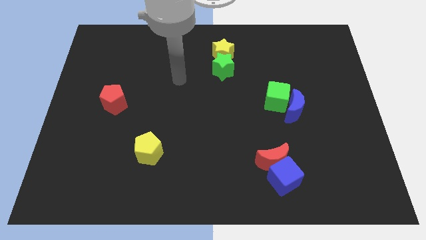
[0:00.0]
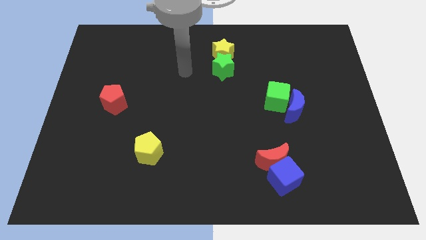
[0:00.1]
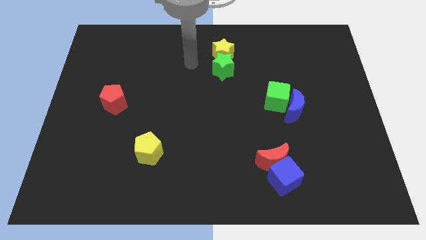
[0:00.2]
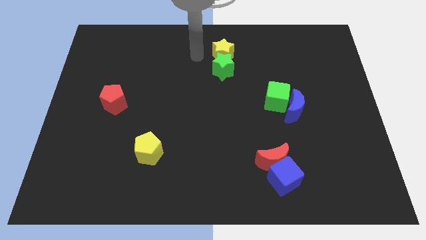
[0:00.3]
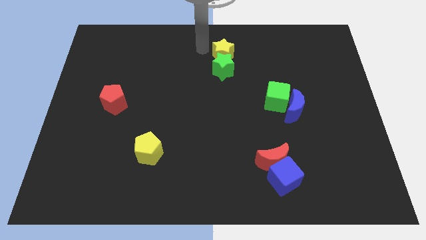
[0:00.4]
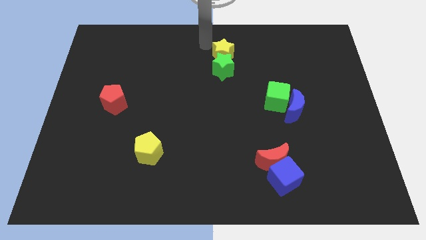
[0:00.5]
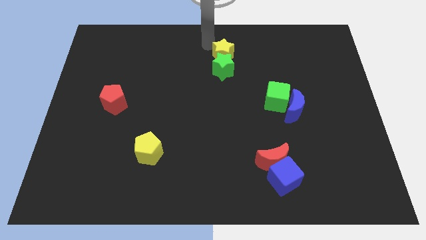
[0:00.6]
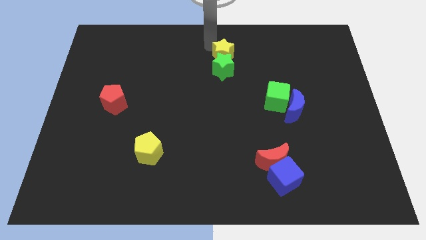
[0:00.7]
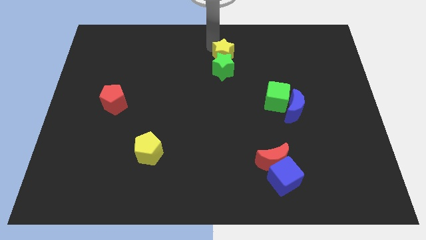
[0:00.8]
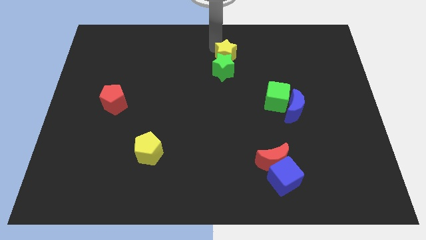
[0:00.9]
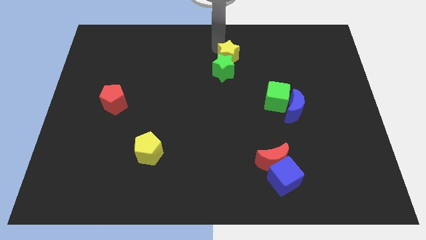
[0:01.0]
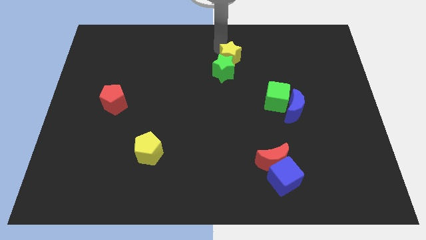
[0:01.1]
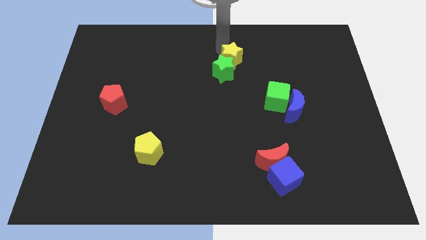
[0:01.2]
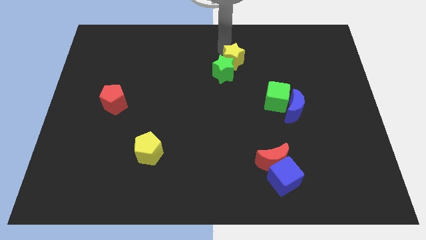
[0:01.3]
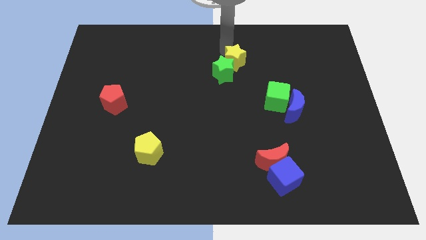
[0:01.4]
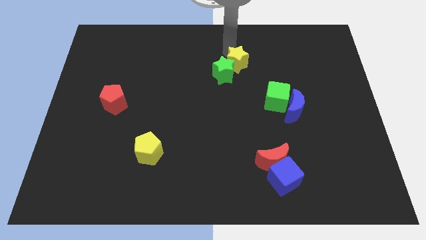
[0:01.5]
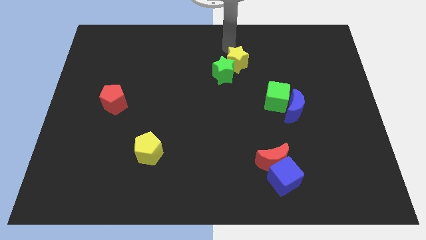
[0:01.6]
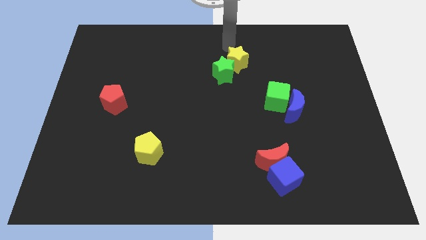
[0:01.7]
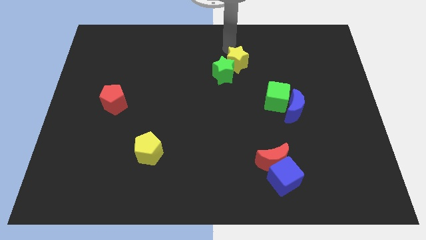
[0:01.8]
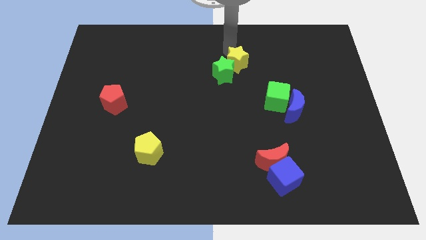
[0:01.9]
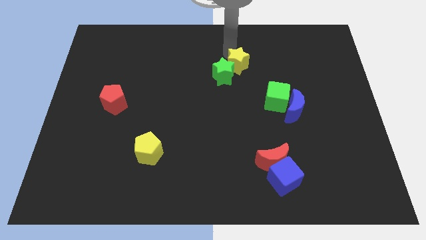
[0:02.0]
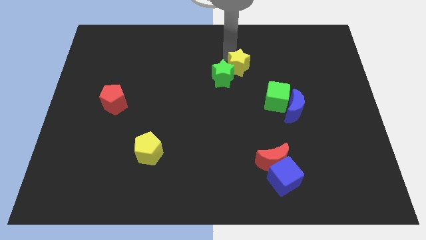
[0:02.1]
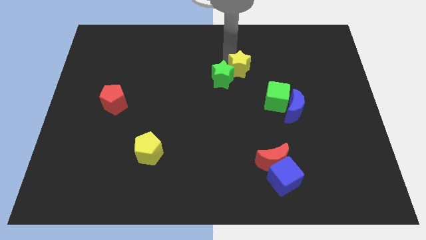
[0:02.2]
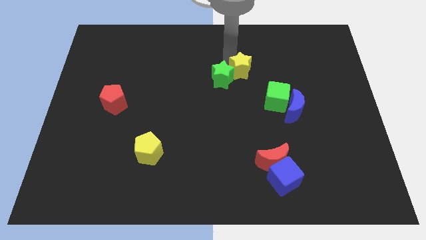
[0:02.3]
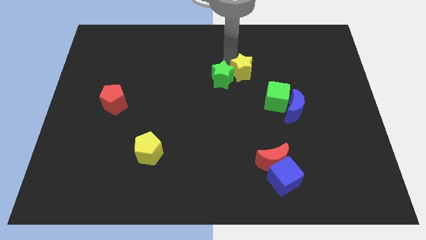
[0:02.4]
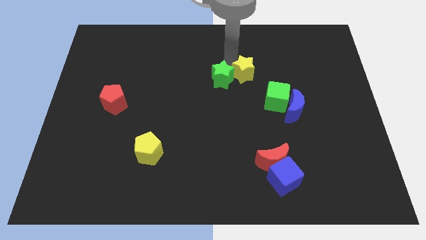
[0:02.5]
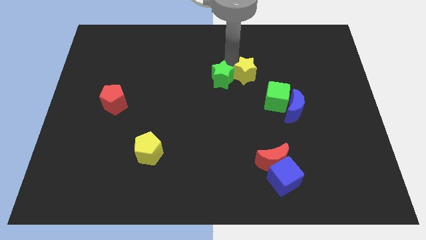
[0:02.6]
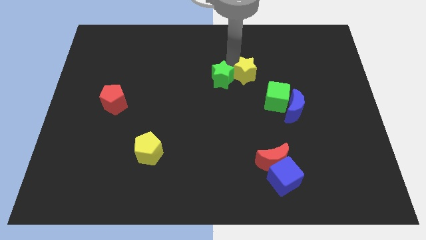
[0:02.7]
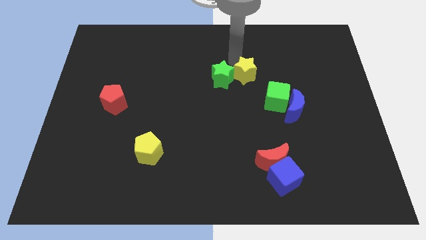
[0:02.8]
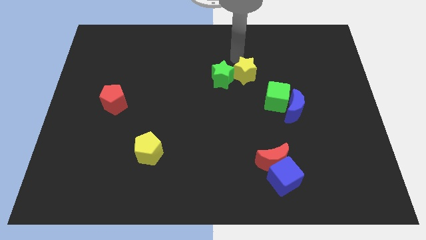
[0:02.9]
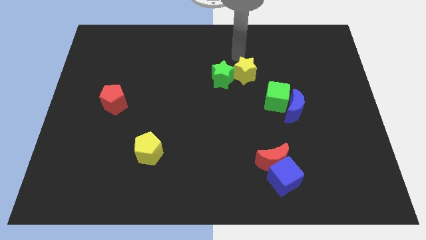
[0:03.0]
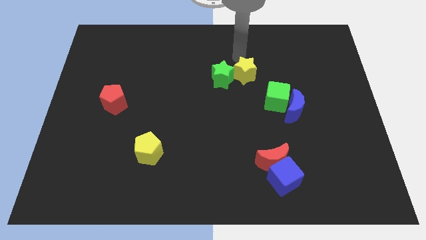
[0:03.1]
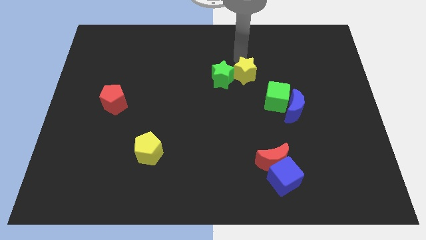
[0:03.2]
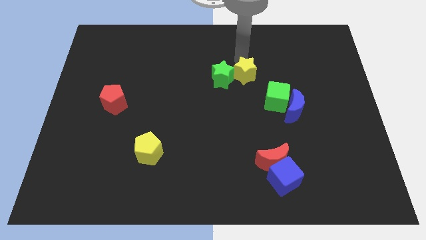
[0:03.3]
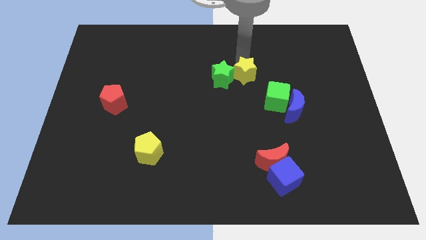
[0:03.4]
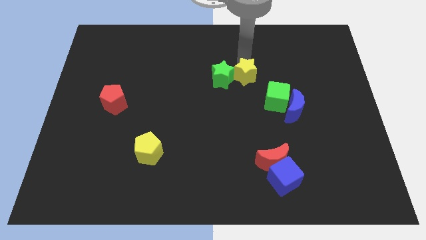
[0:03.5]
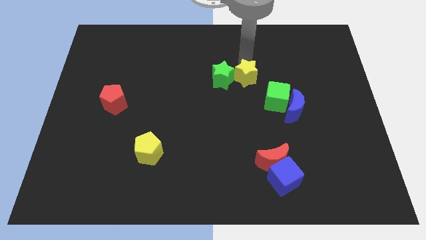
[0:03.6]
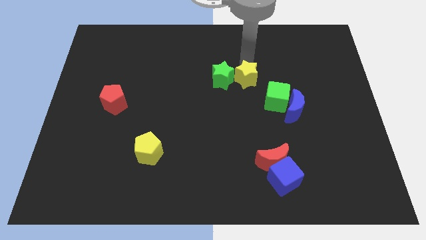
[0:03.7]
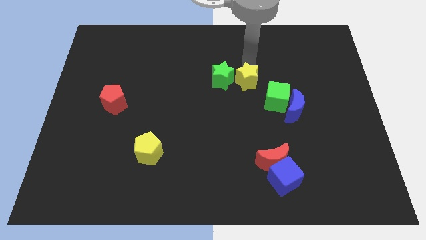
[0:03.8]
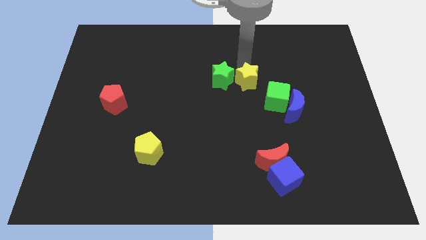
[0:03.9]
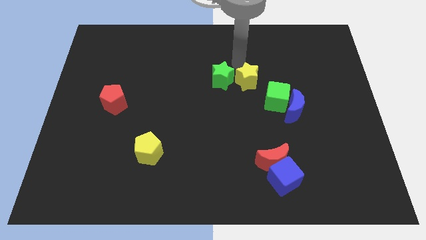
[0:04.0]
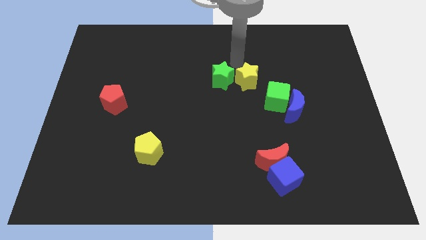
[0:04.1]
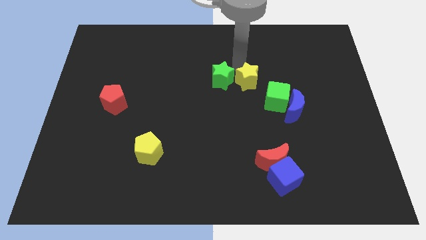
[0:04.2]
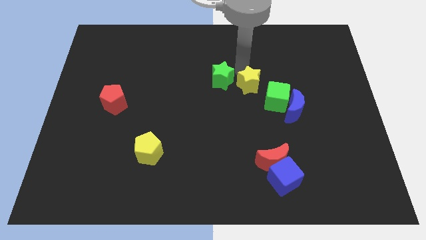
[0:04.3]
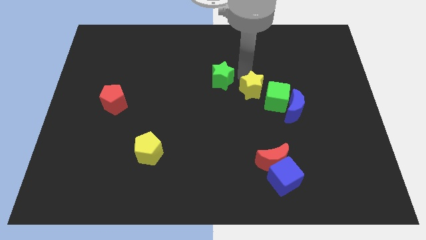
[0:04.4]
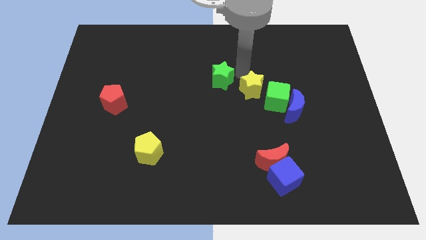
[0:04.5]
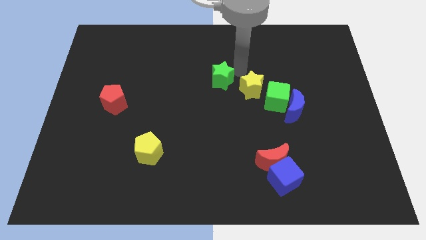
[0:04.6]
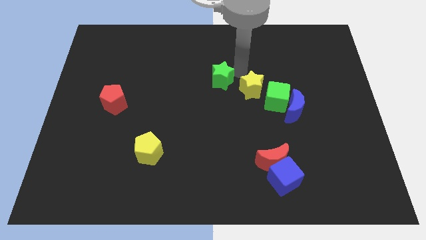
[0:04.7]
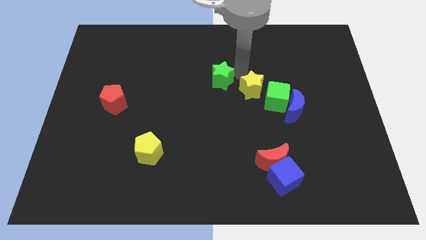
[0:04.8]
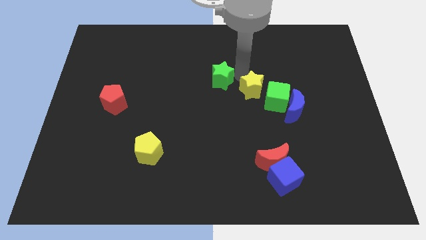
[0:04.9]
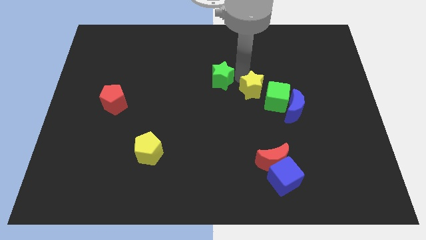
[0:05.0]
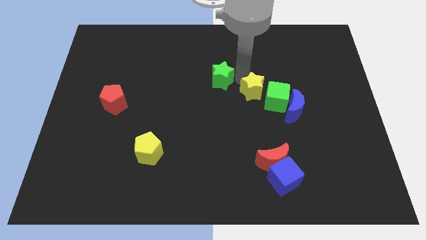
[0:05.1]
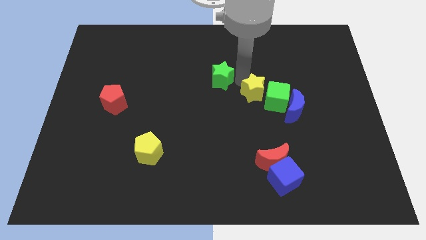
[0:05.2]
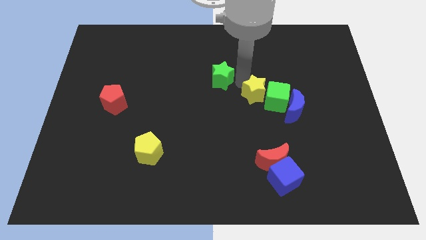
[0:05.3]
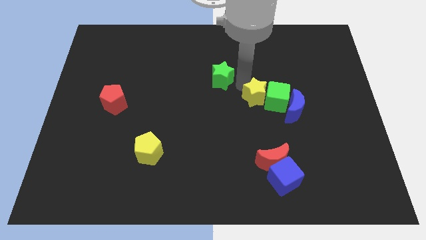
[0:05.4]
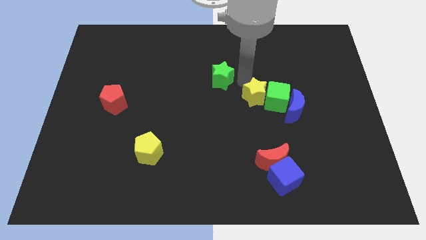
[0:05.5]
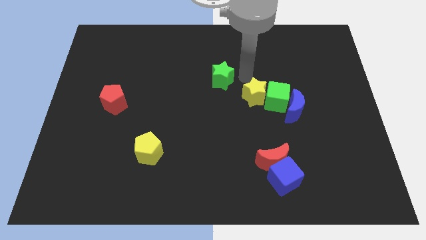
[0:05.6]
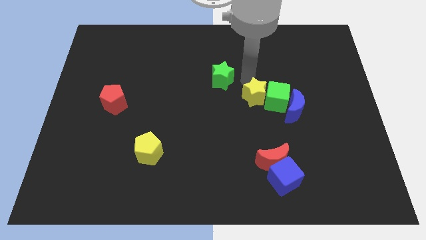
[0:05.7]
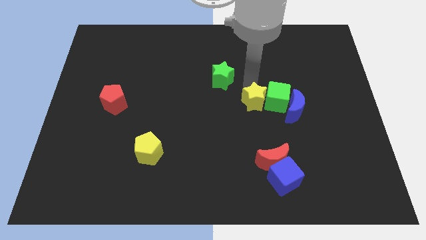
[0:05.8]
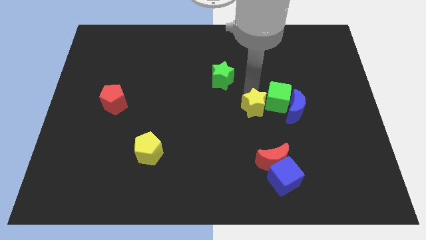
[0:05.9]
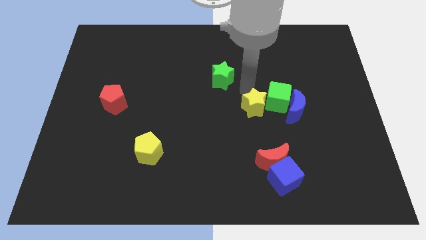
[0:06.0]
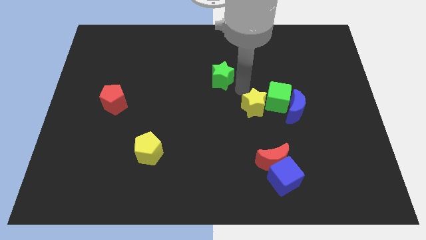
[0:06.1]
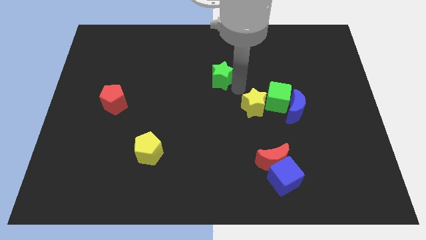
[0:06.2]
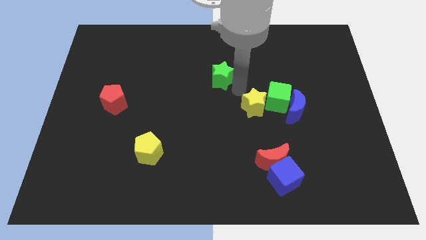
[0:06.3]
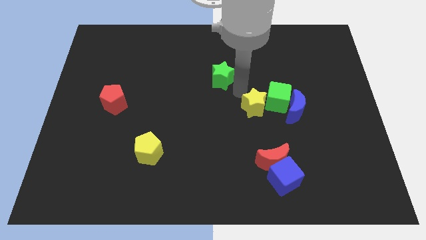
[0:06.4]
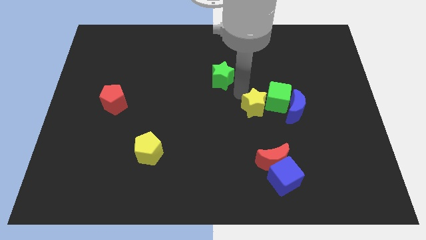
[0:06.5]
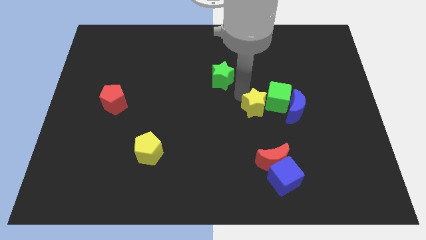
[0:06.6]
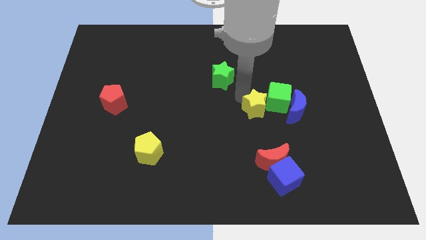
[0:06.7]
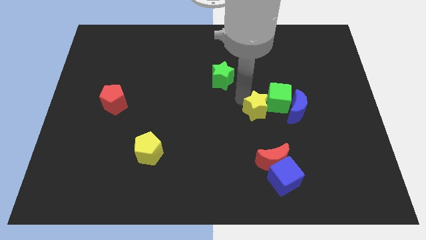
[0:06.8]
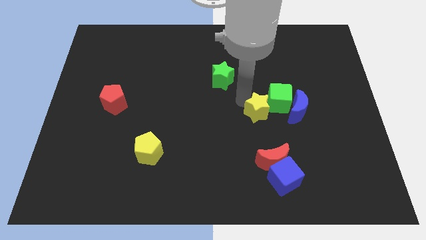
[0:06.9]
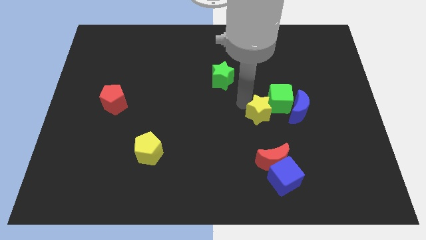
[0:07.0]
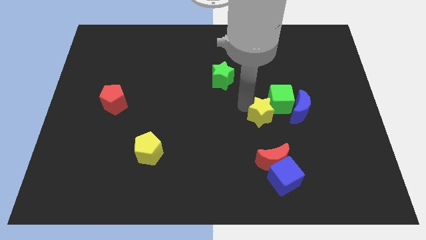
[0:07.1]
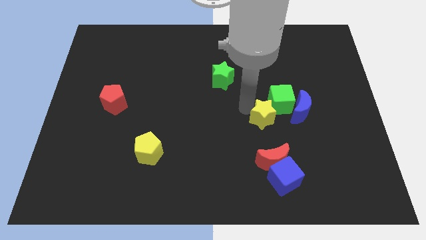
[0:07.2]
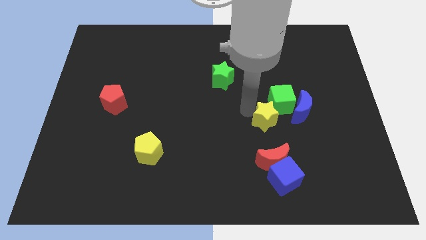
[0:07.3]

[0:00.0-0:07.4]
push the yellow star to the bottom left side of the blue moon
